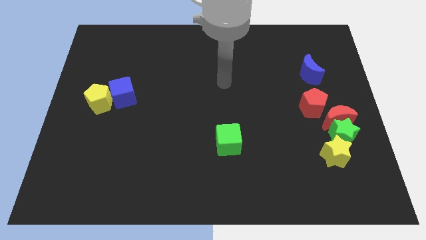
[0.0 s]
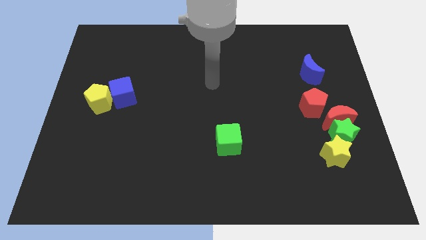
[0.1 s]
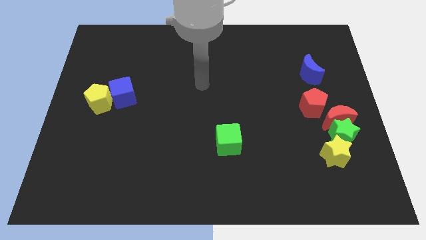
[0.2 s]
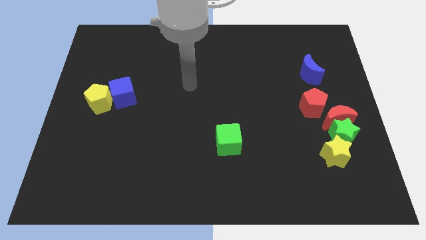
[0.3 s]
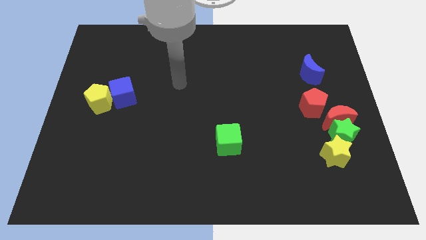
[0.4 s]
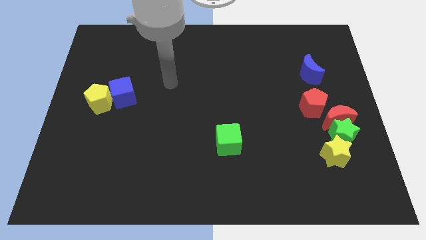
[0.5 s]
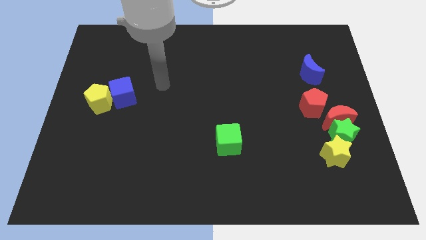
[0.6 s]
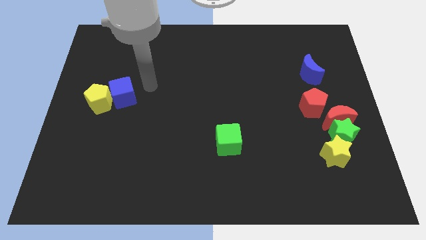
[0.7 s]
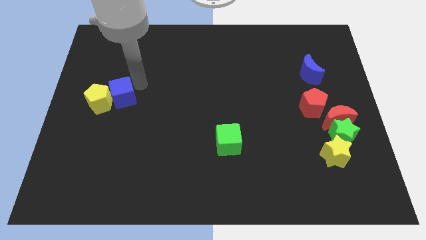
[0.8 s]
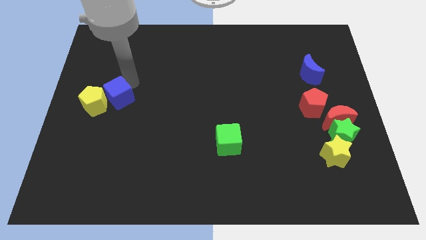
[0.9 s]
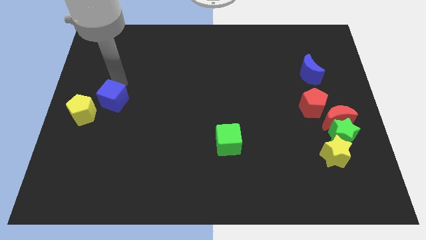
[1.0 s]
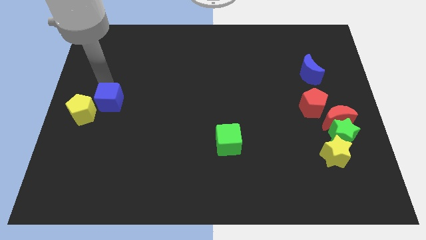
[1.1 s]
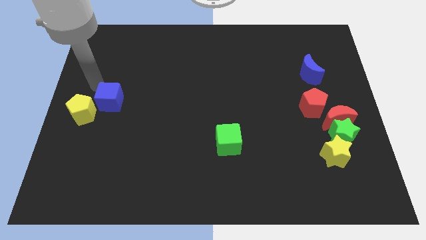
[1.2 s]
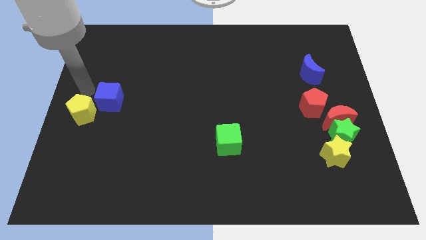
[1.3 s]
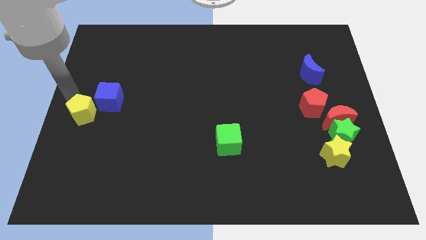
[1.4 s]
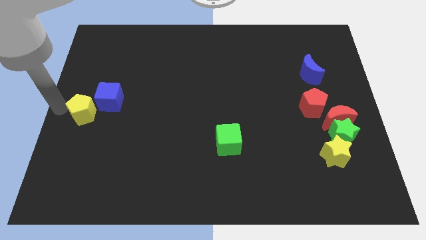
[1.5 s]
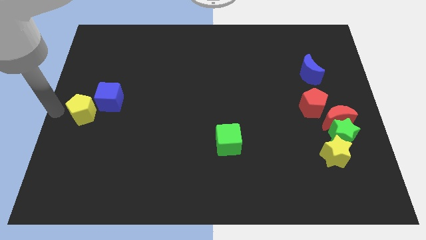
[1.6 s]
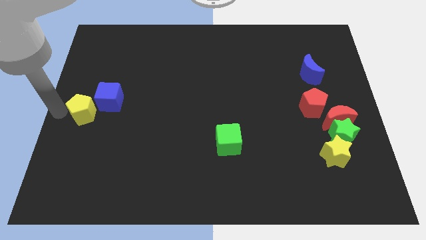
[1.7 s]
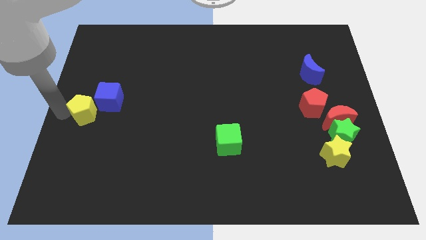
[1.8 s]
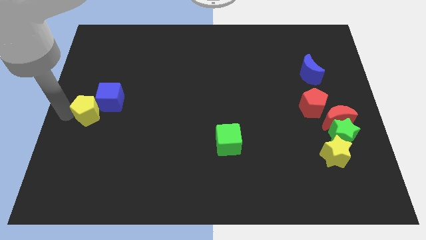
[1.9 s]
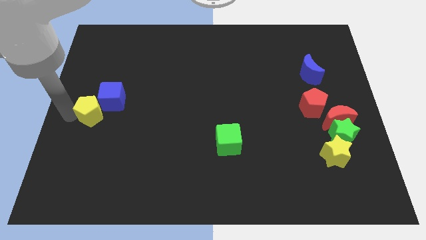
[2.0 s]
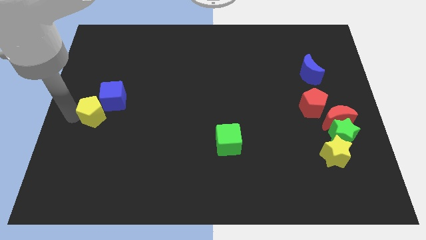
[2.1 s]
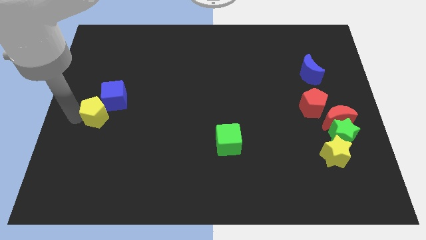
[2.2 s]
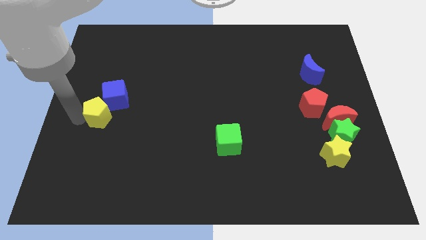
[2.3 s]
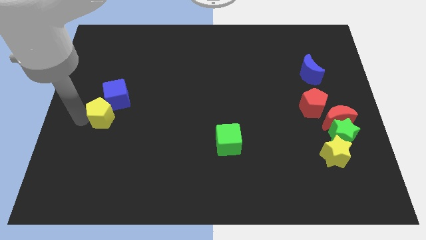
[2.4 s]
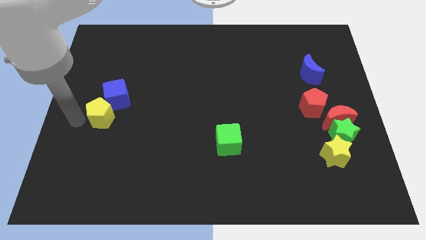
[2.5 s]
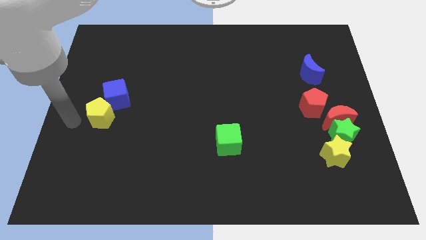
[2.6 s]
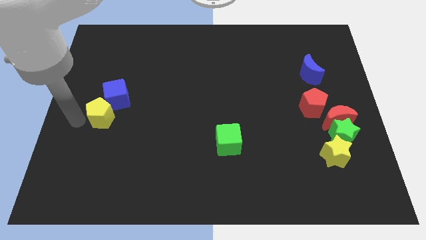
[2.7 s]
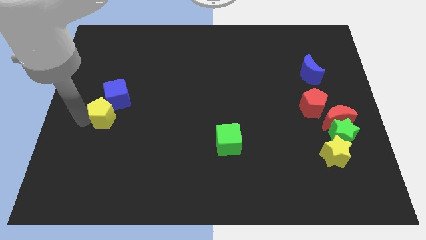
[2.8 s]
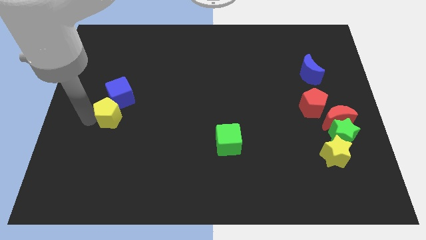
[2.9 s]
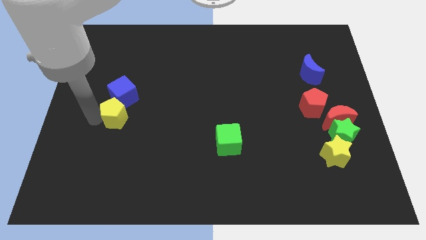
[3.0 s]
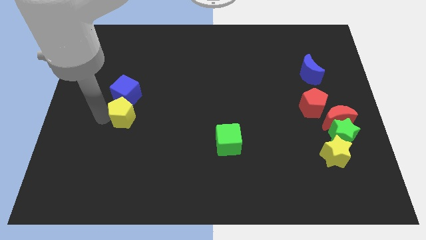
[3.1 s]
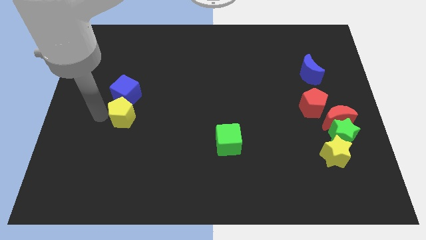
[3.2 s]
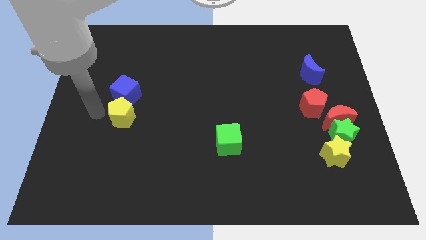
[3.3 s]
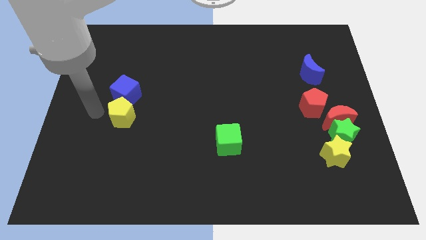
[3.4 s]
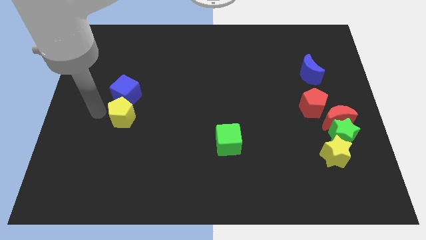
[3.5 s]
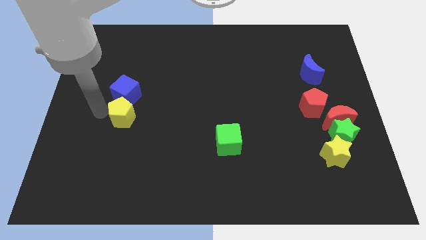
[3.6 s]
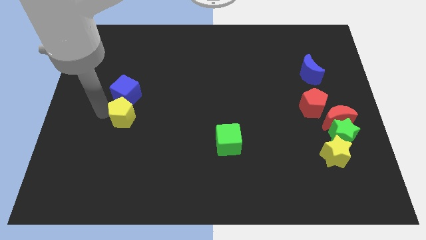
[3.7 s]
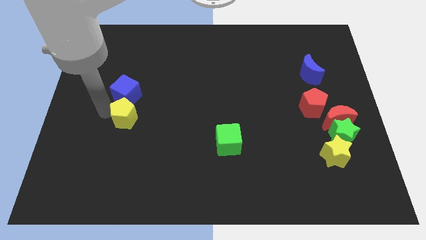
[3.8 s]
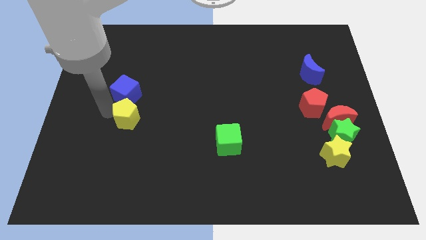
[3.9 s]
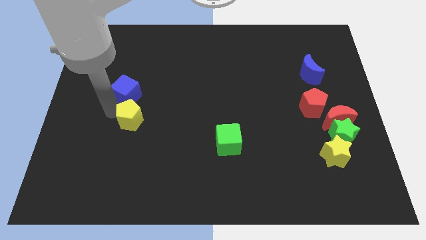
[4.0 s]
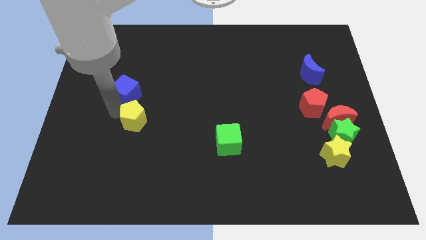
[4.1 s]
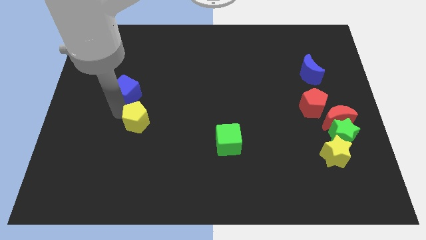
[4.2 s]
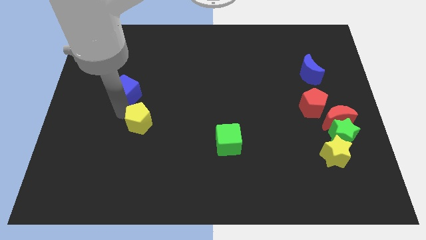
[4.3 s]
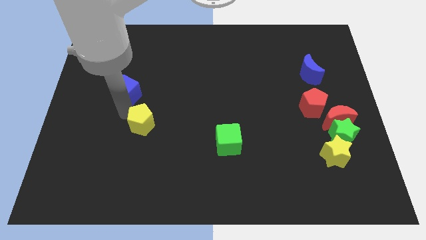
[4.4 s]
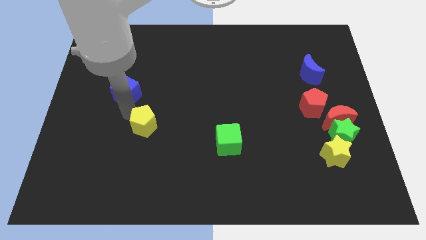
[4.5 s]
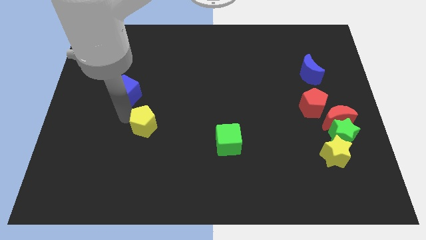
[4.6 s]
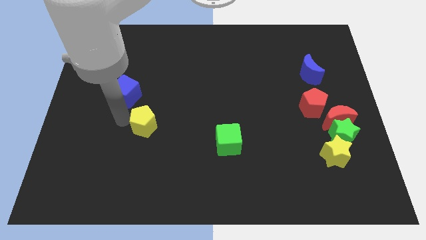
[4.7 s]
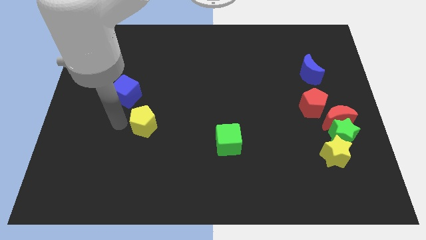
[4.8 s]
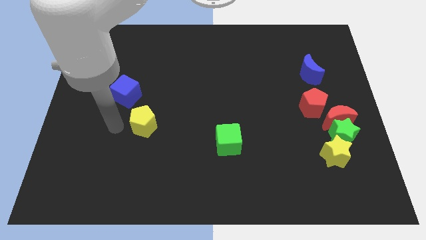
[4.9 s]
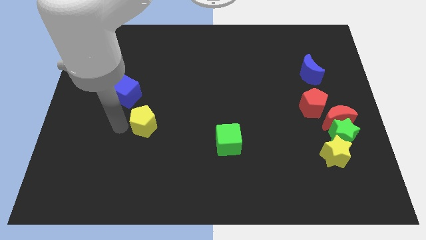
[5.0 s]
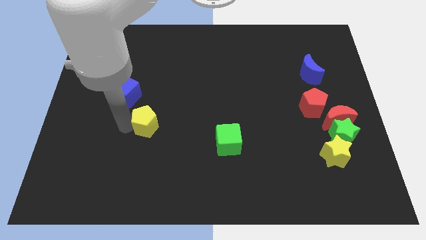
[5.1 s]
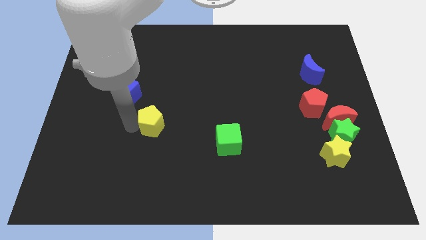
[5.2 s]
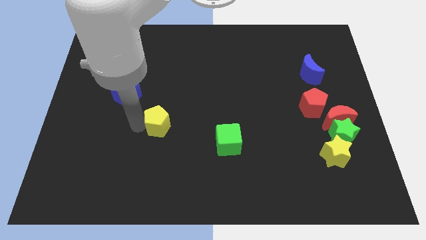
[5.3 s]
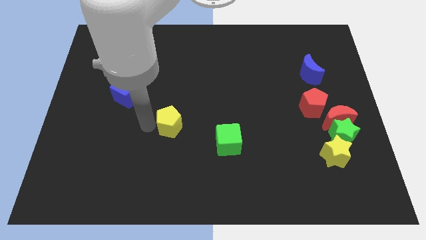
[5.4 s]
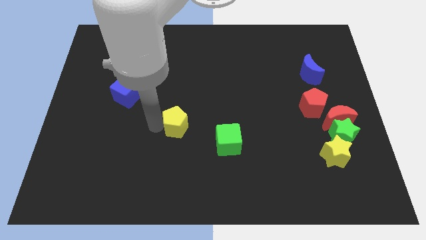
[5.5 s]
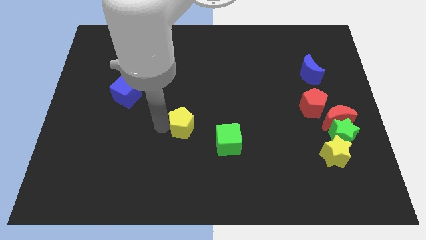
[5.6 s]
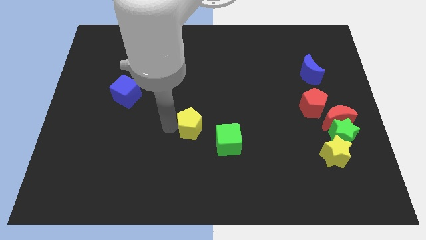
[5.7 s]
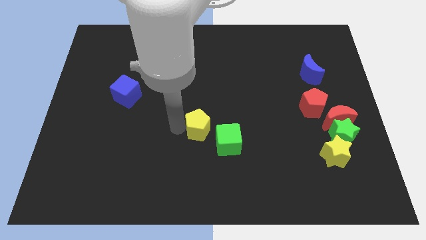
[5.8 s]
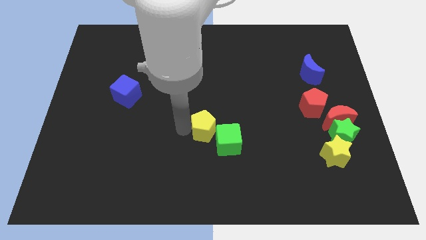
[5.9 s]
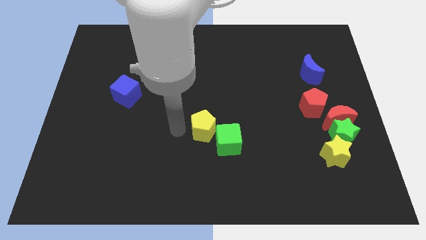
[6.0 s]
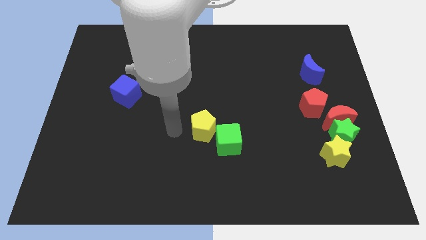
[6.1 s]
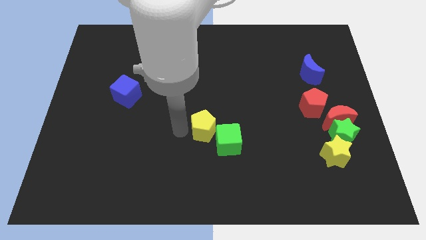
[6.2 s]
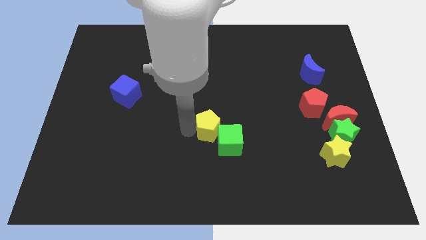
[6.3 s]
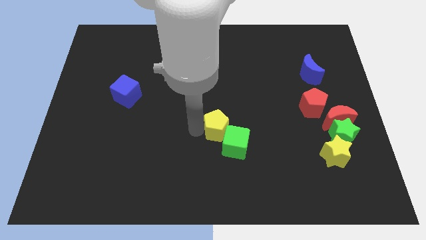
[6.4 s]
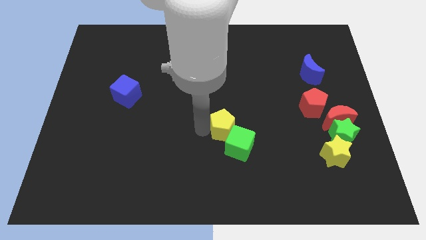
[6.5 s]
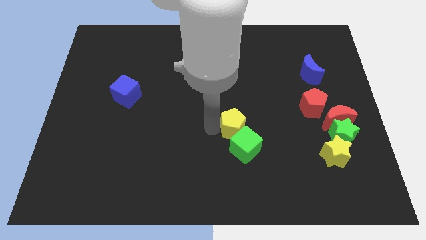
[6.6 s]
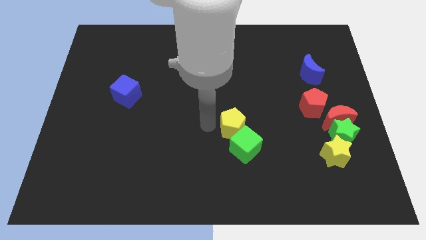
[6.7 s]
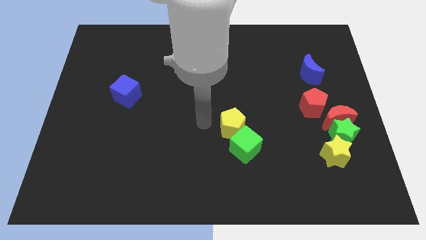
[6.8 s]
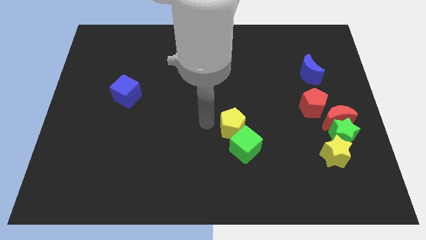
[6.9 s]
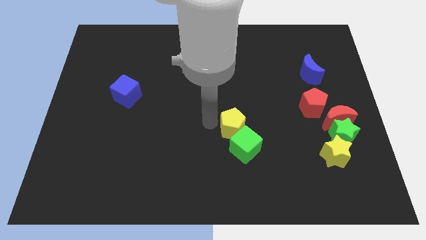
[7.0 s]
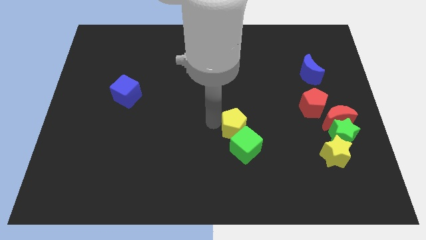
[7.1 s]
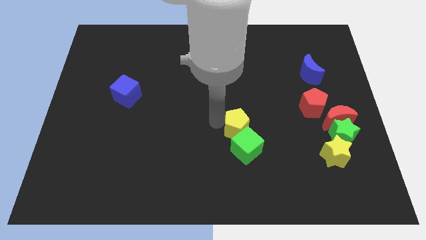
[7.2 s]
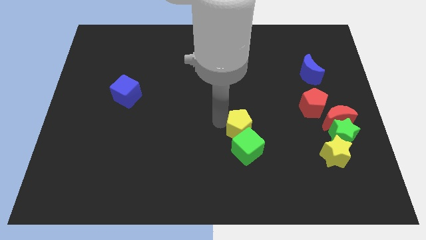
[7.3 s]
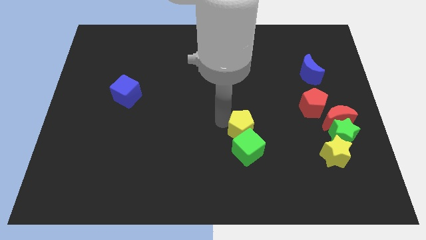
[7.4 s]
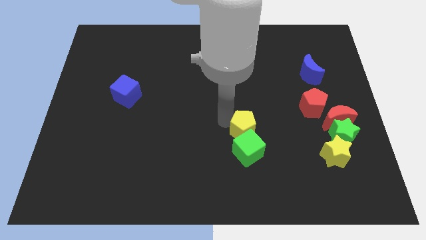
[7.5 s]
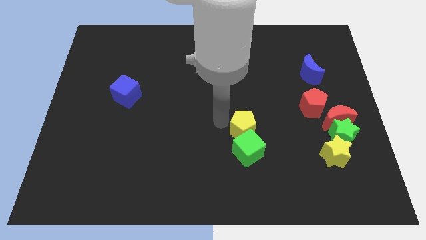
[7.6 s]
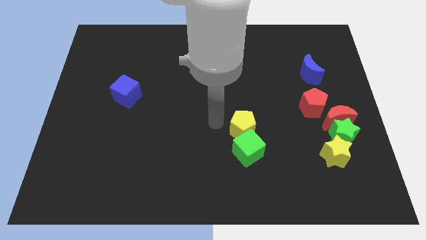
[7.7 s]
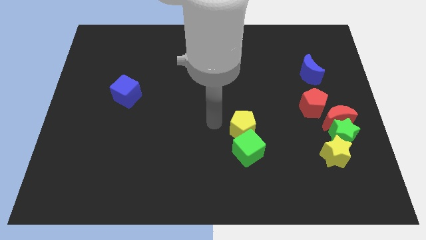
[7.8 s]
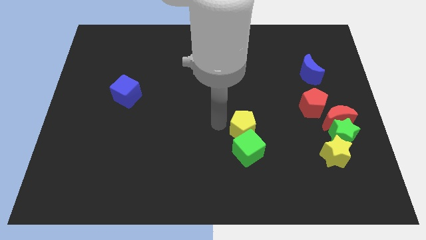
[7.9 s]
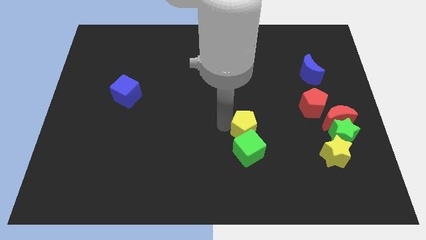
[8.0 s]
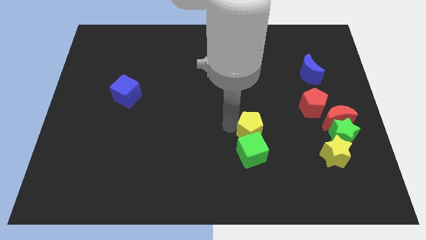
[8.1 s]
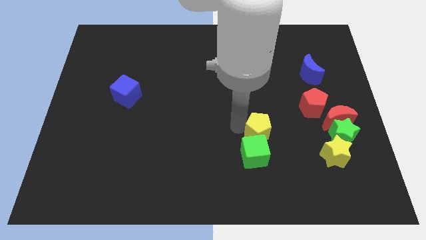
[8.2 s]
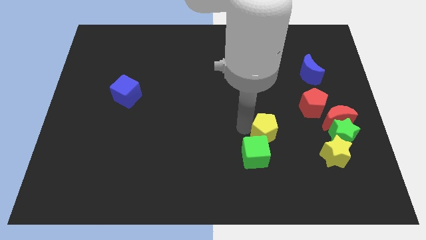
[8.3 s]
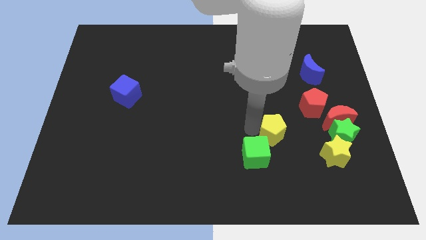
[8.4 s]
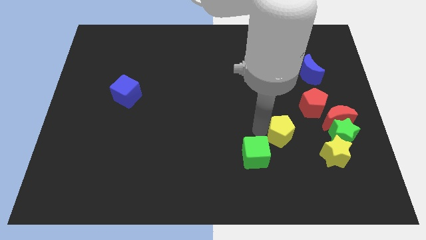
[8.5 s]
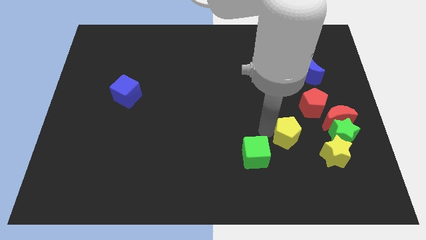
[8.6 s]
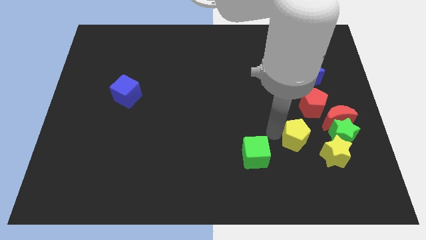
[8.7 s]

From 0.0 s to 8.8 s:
push the yellow pentagon to the bottom left of the red moon
